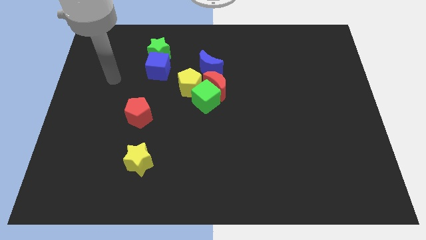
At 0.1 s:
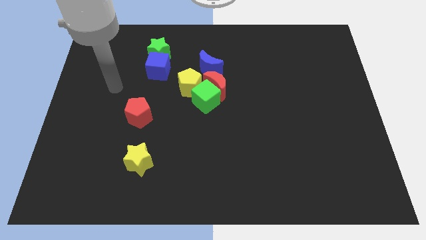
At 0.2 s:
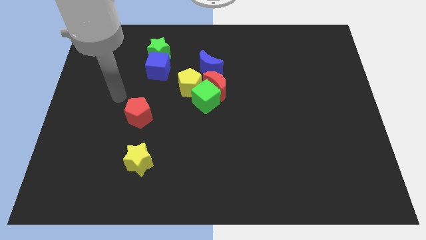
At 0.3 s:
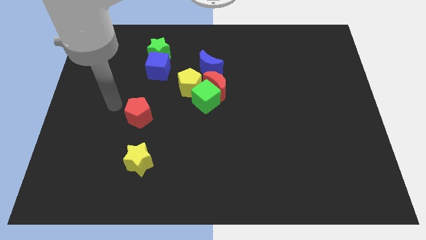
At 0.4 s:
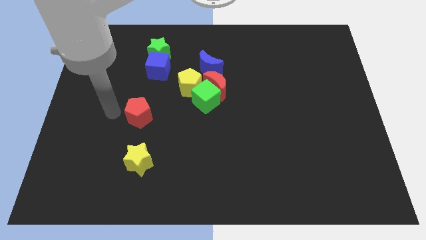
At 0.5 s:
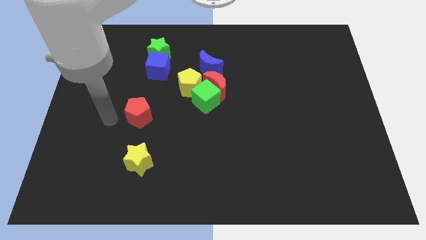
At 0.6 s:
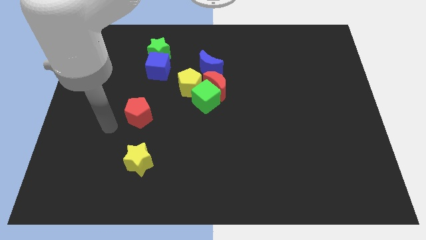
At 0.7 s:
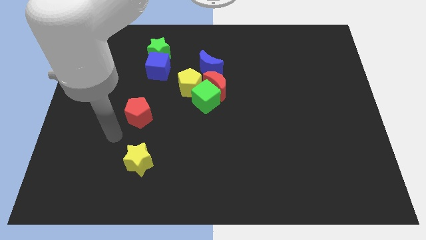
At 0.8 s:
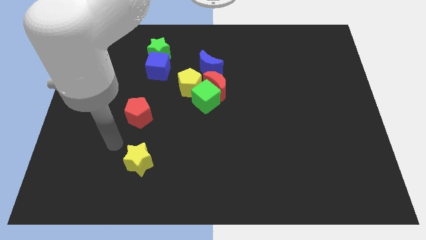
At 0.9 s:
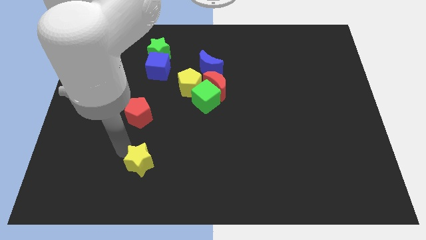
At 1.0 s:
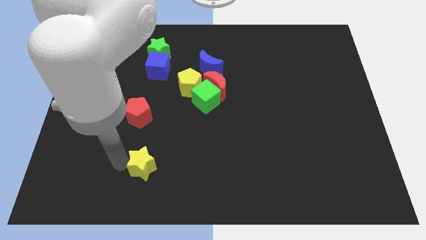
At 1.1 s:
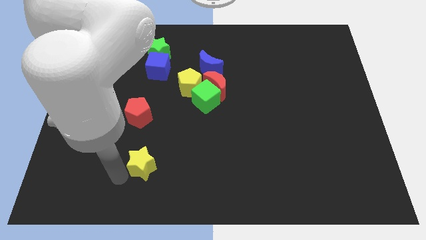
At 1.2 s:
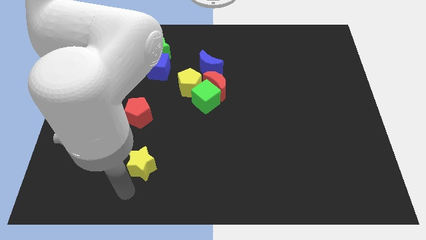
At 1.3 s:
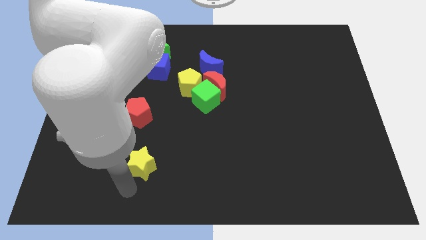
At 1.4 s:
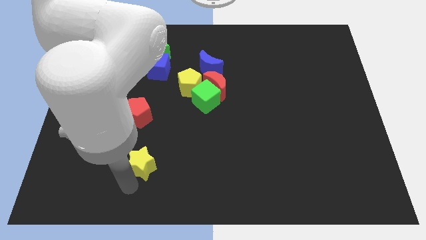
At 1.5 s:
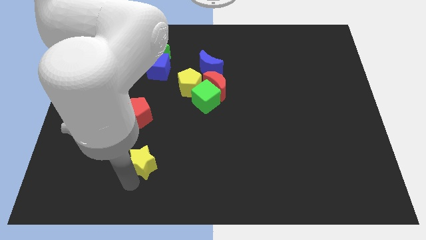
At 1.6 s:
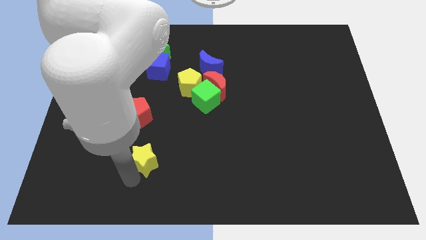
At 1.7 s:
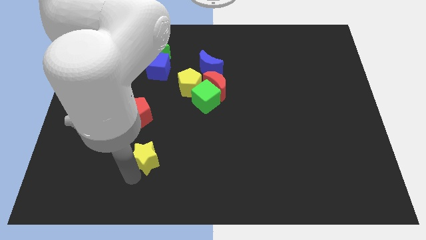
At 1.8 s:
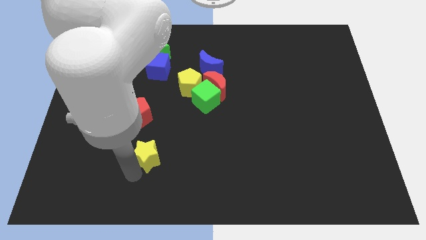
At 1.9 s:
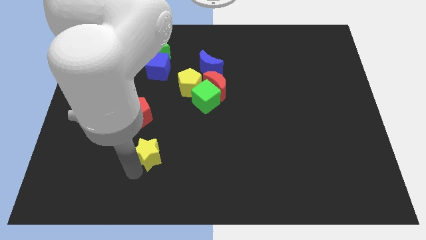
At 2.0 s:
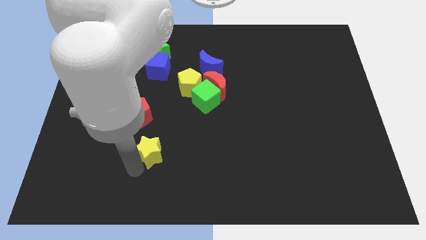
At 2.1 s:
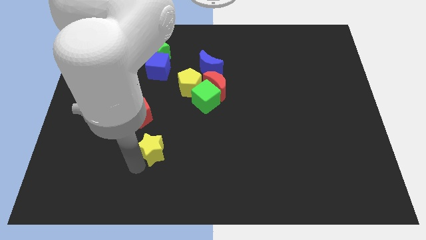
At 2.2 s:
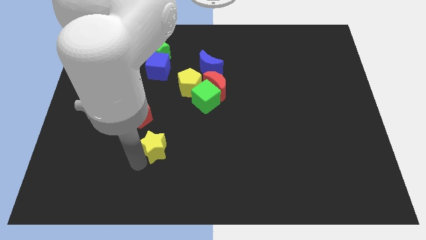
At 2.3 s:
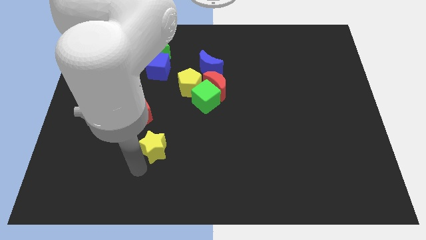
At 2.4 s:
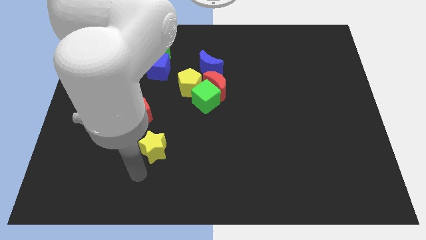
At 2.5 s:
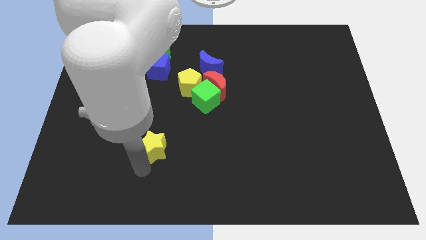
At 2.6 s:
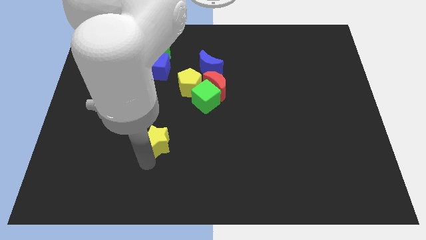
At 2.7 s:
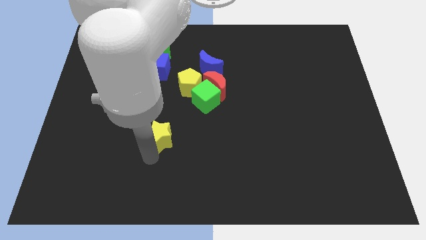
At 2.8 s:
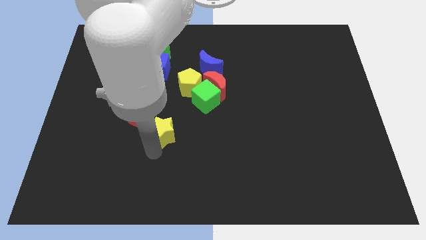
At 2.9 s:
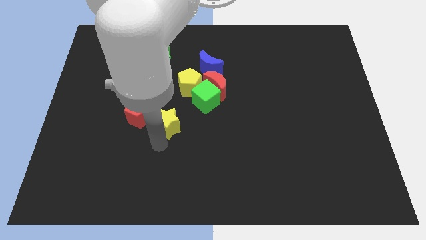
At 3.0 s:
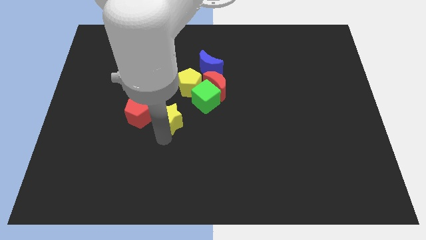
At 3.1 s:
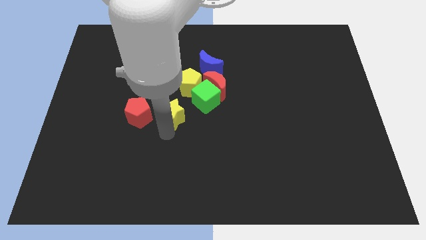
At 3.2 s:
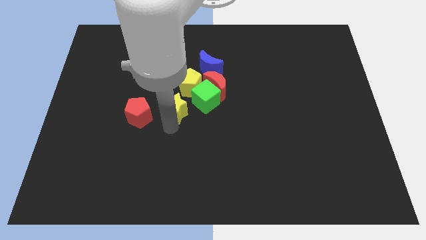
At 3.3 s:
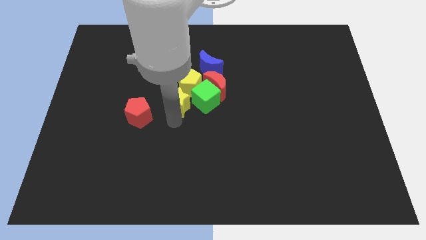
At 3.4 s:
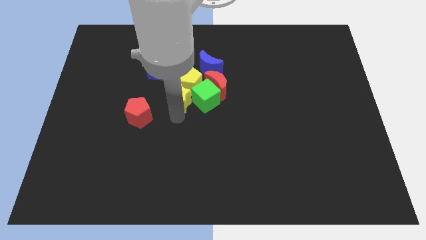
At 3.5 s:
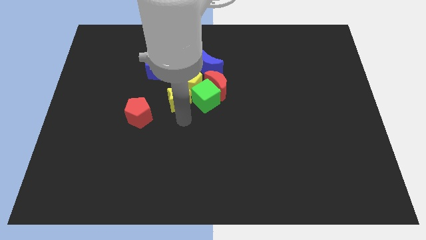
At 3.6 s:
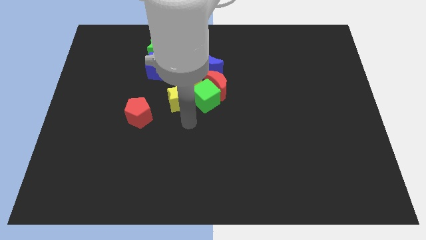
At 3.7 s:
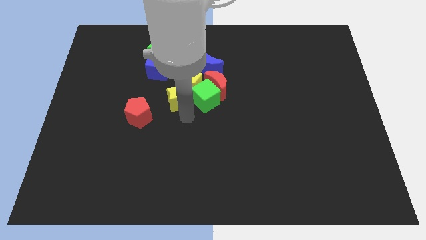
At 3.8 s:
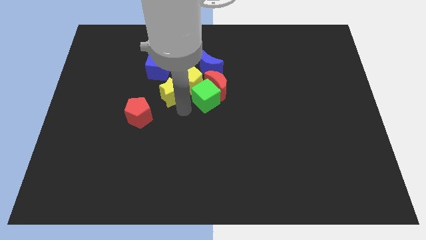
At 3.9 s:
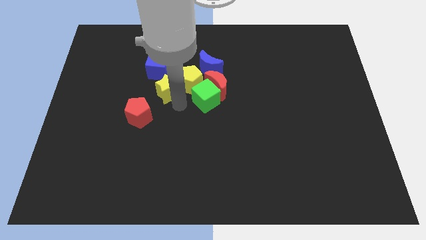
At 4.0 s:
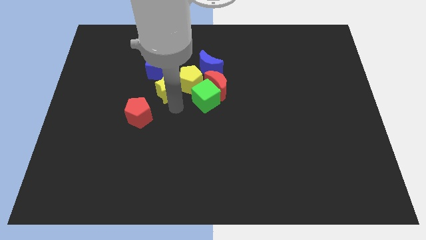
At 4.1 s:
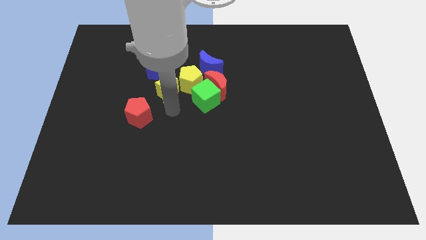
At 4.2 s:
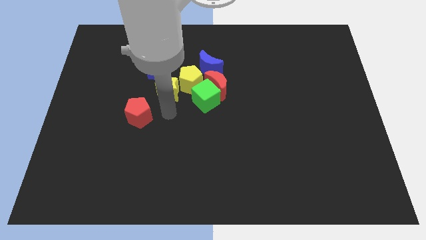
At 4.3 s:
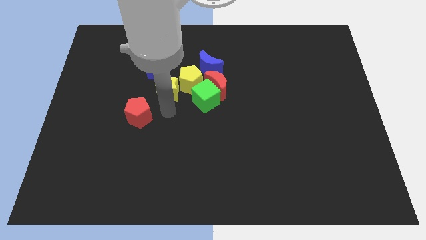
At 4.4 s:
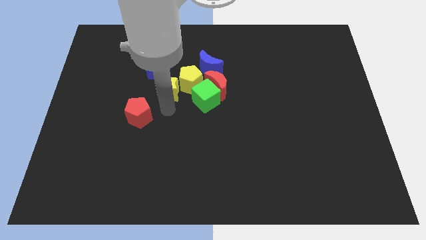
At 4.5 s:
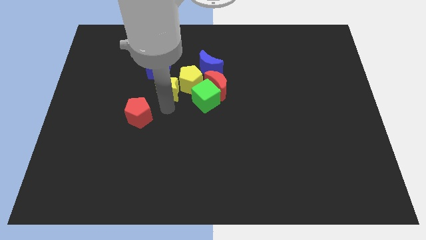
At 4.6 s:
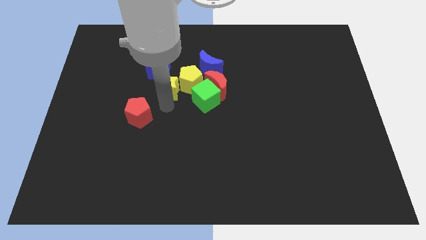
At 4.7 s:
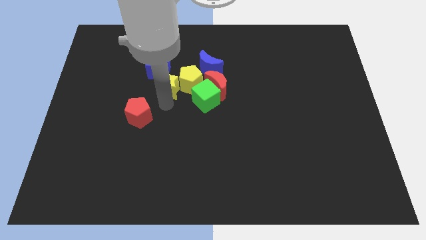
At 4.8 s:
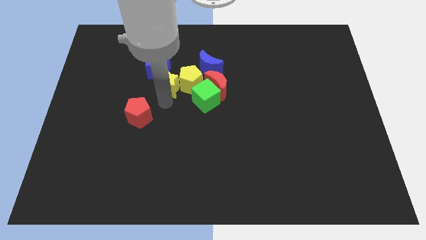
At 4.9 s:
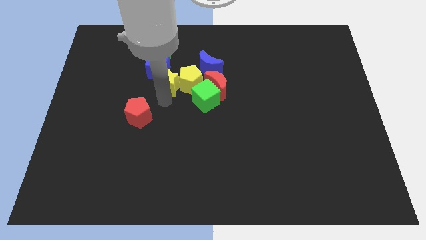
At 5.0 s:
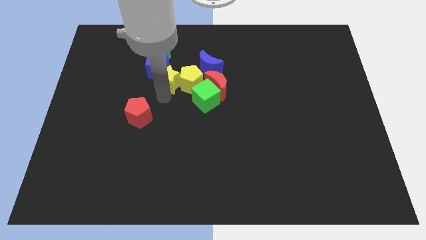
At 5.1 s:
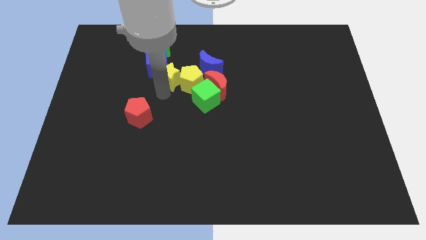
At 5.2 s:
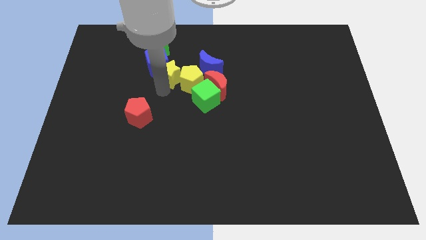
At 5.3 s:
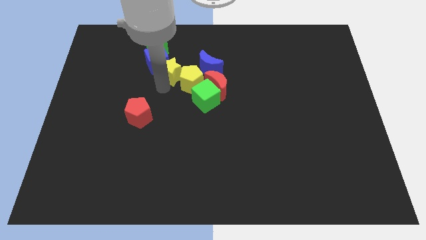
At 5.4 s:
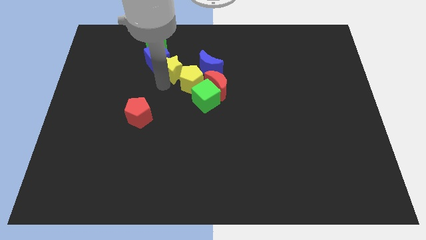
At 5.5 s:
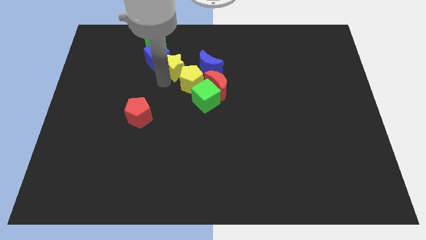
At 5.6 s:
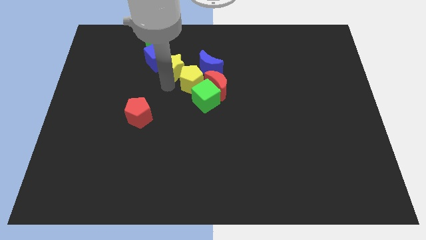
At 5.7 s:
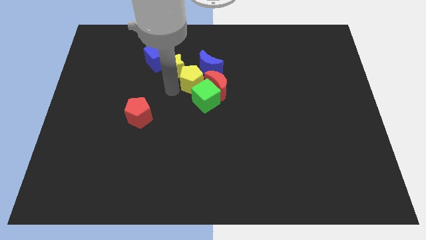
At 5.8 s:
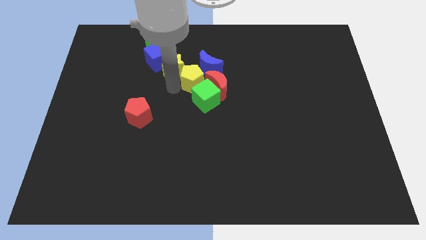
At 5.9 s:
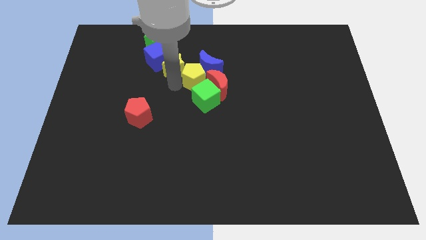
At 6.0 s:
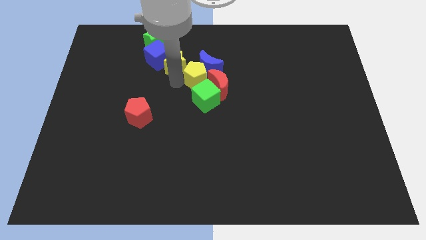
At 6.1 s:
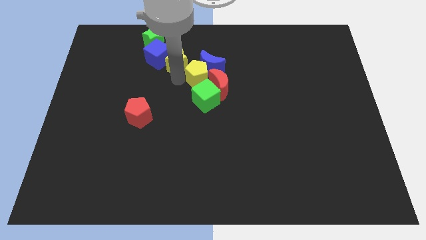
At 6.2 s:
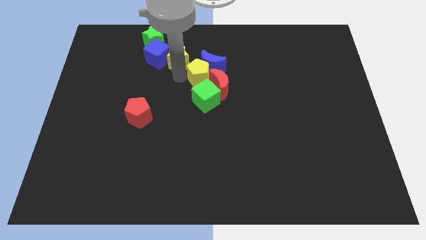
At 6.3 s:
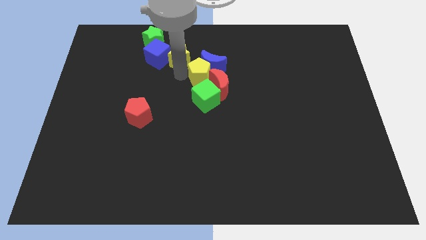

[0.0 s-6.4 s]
slide the yellow star to the top right side of the blue cube

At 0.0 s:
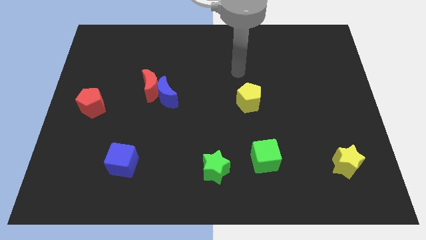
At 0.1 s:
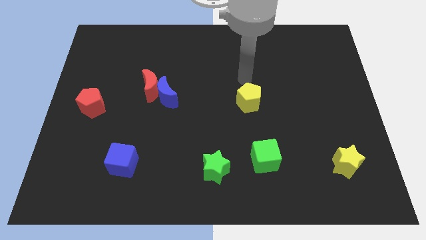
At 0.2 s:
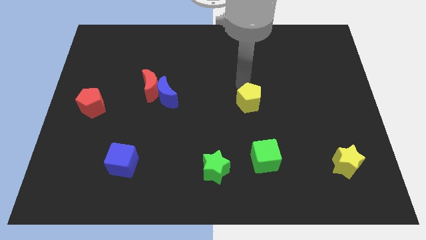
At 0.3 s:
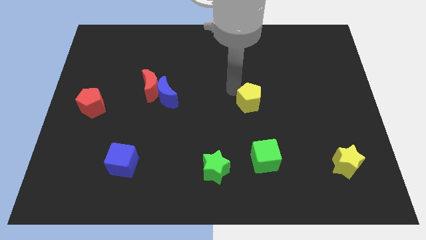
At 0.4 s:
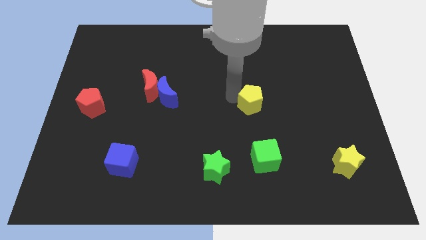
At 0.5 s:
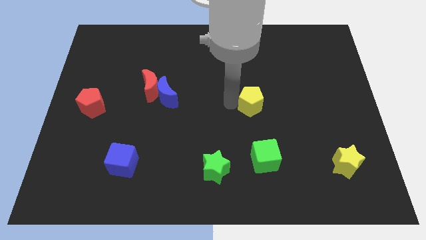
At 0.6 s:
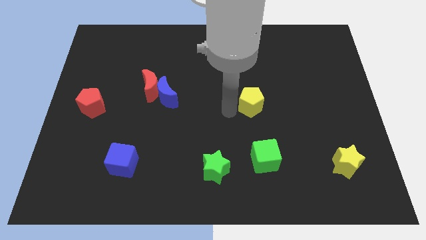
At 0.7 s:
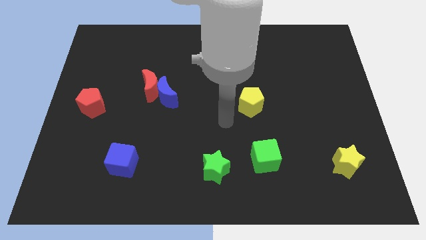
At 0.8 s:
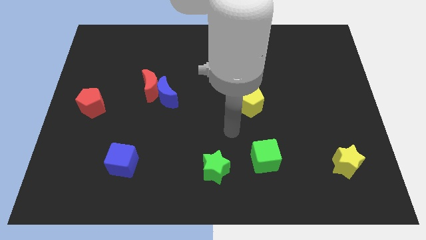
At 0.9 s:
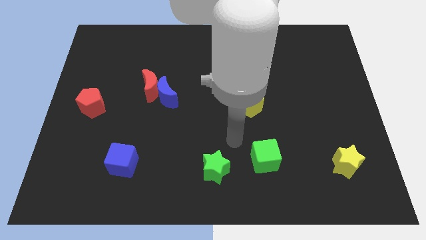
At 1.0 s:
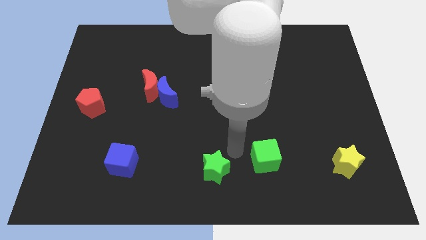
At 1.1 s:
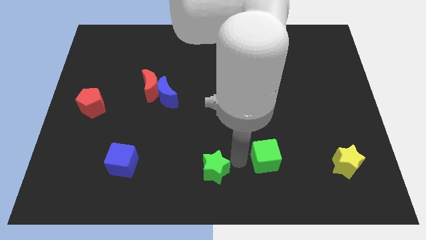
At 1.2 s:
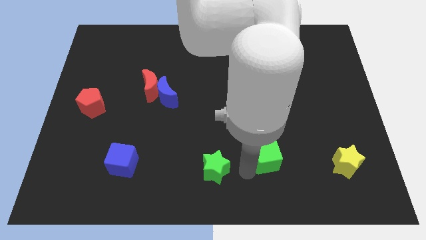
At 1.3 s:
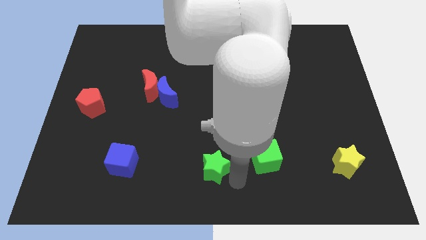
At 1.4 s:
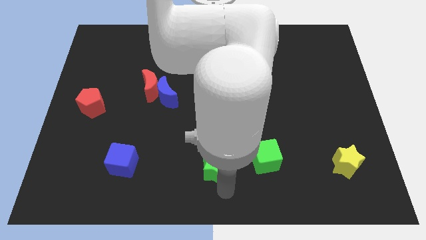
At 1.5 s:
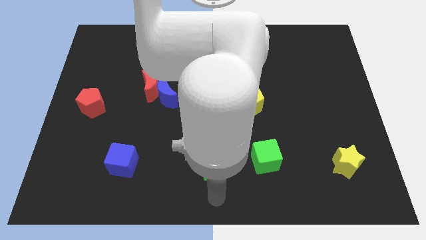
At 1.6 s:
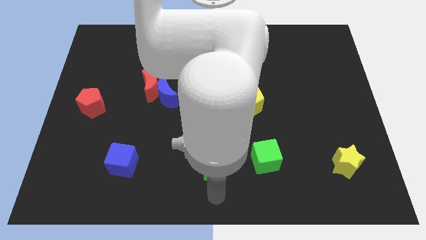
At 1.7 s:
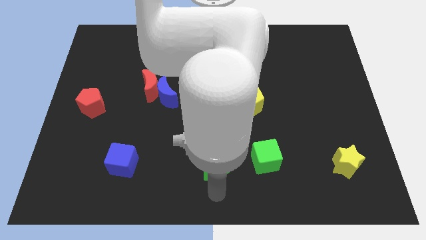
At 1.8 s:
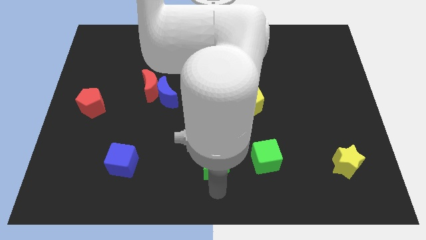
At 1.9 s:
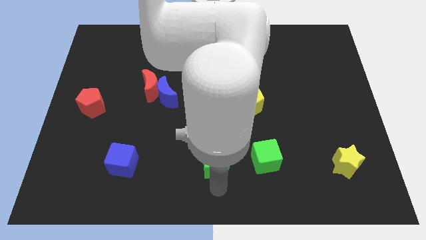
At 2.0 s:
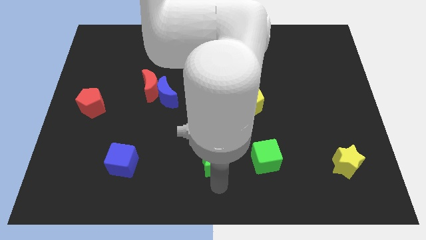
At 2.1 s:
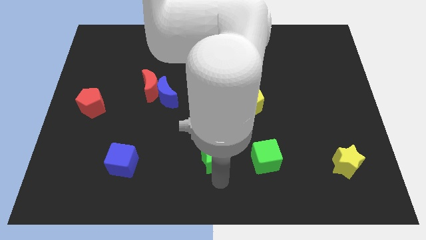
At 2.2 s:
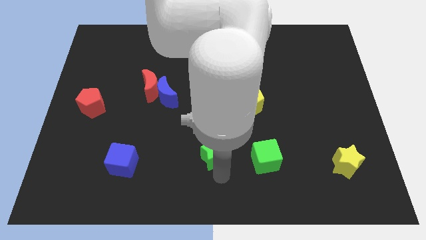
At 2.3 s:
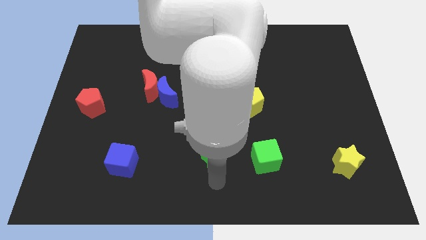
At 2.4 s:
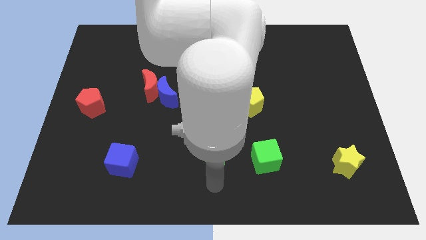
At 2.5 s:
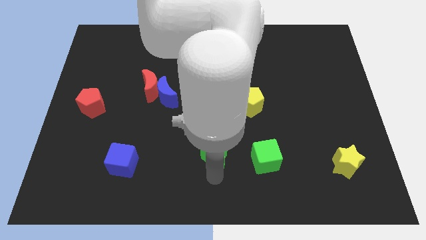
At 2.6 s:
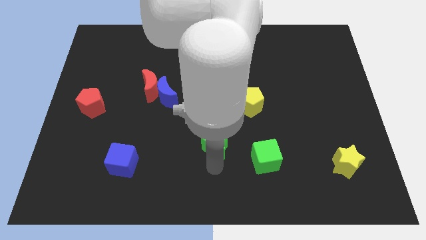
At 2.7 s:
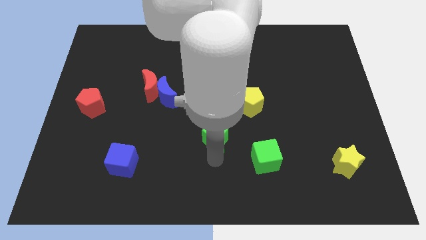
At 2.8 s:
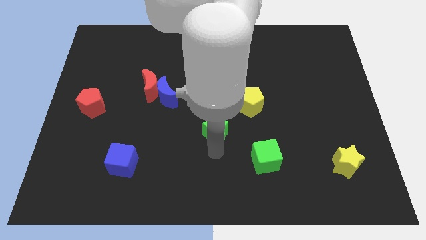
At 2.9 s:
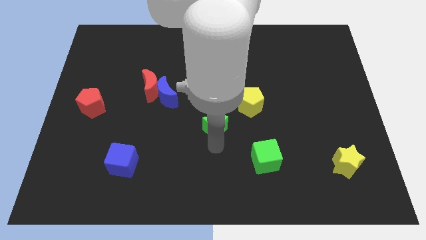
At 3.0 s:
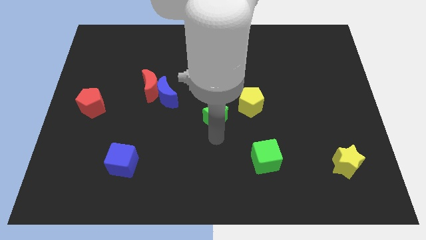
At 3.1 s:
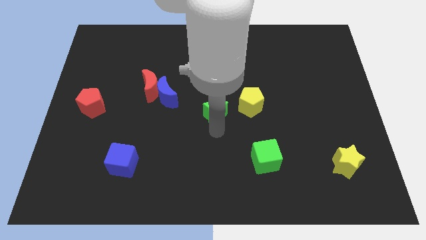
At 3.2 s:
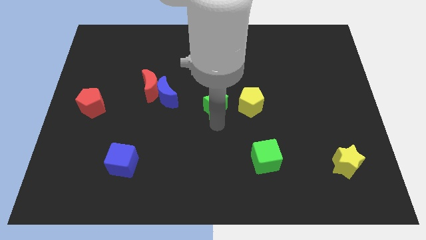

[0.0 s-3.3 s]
slide the green star to the right side of the blue moon
